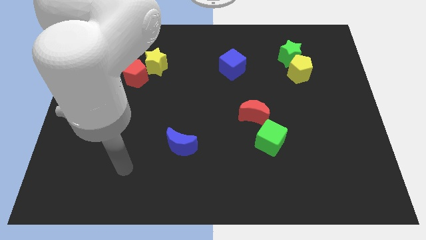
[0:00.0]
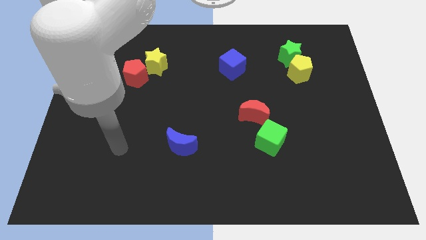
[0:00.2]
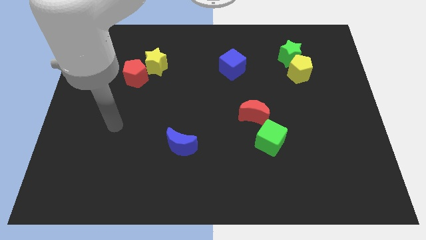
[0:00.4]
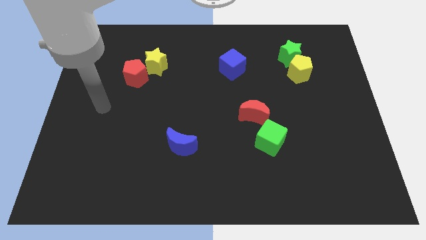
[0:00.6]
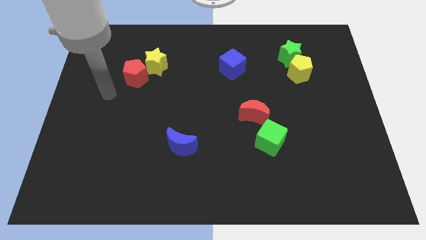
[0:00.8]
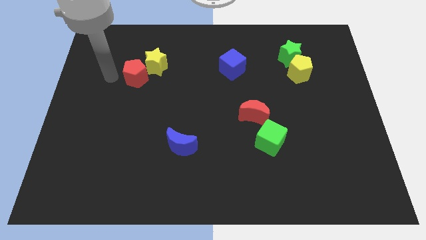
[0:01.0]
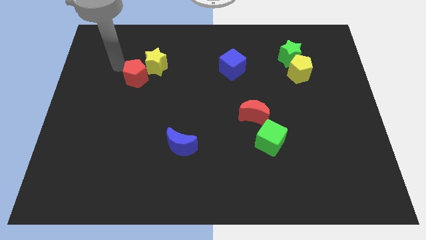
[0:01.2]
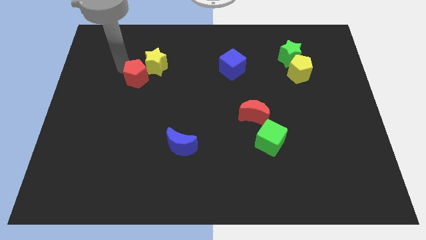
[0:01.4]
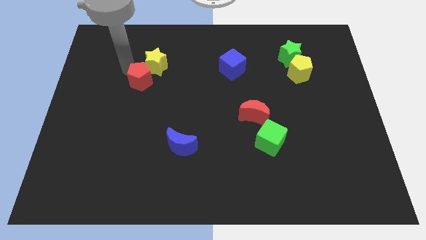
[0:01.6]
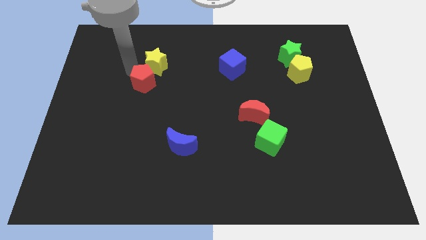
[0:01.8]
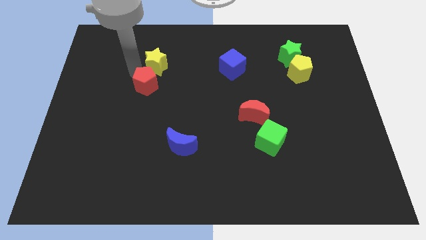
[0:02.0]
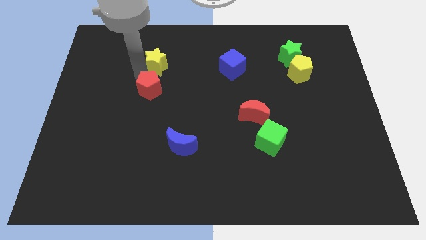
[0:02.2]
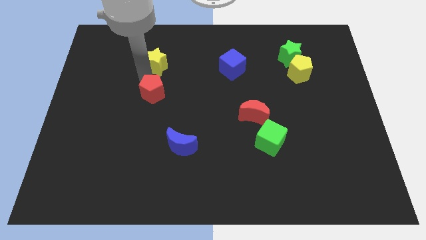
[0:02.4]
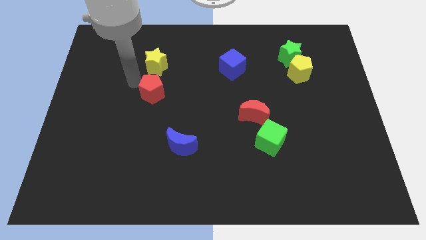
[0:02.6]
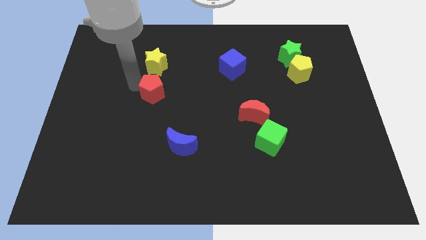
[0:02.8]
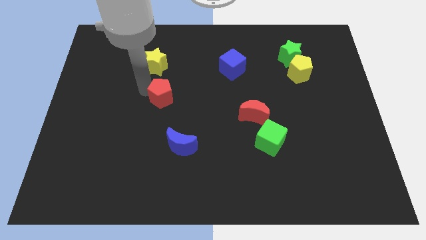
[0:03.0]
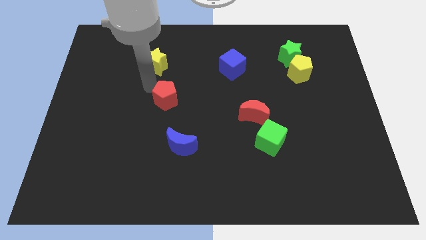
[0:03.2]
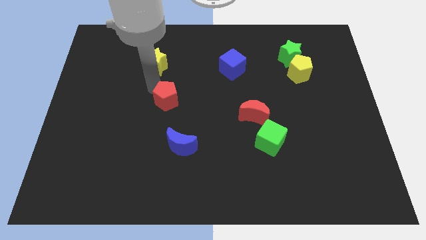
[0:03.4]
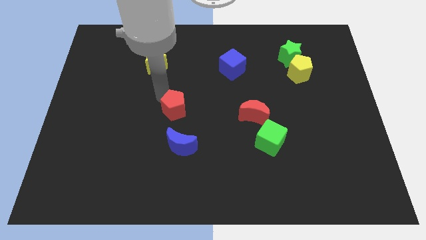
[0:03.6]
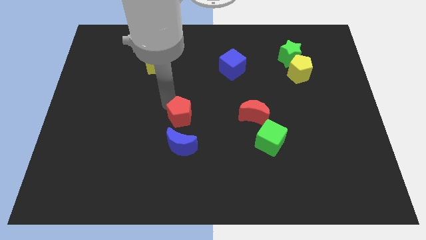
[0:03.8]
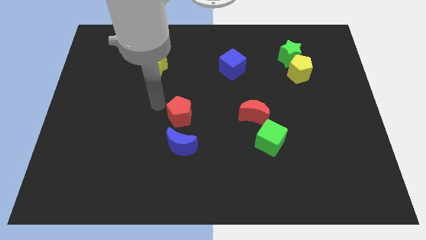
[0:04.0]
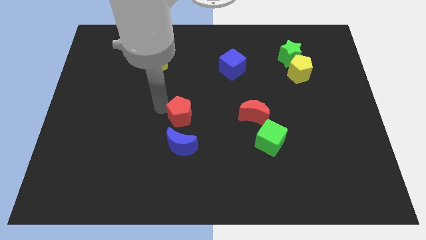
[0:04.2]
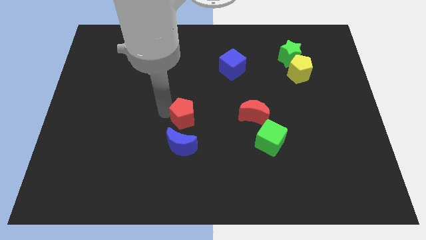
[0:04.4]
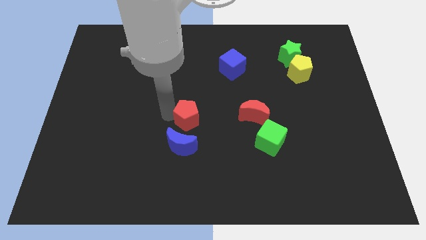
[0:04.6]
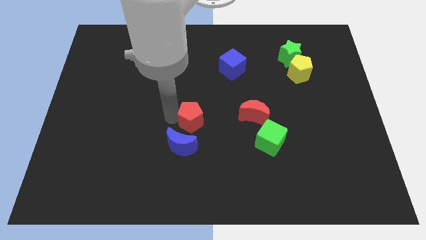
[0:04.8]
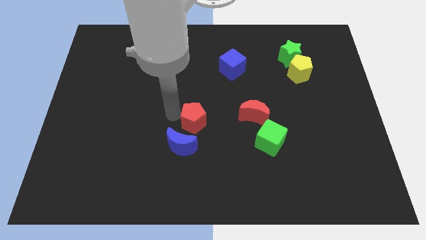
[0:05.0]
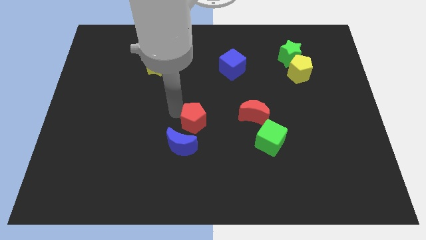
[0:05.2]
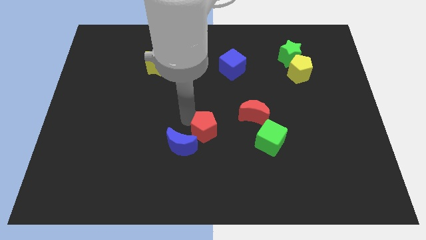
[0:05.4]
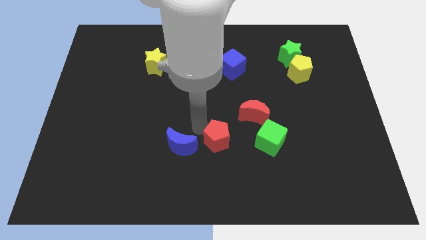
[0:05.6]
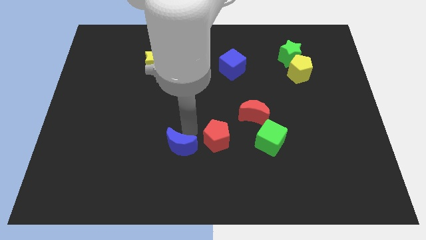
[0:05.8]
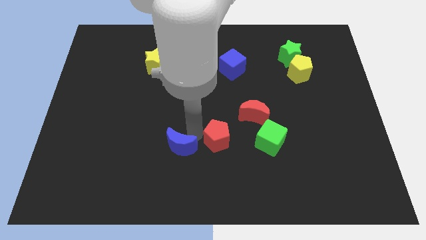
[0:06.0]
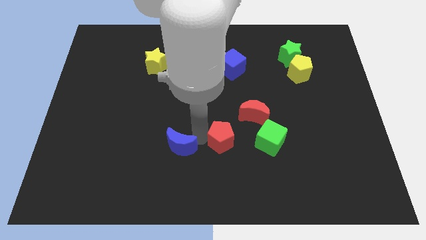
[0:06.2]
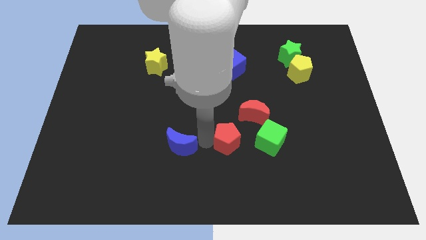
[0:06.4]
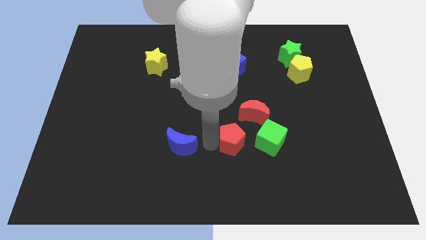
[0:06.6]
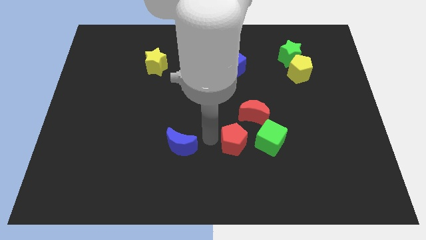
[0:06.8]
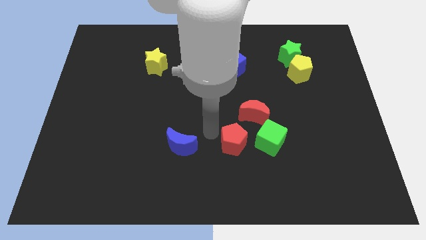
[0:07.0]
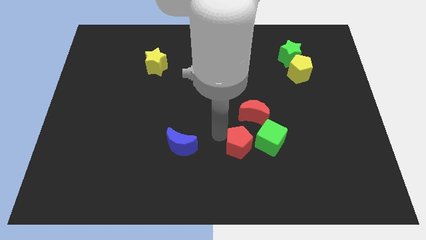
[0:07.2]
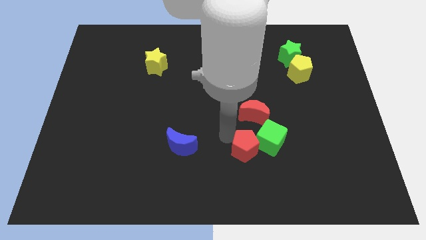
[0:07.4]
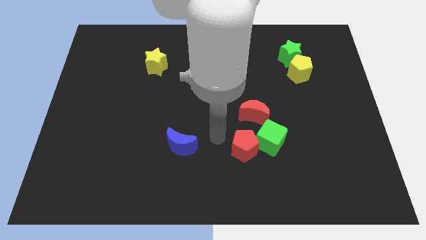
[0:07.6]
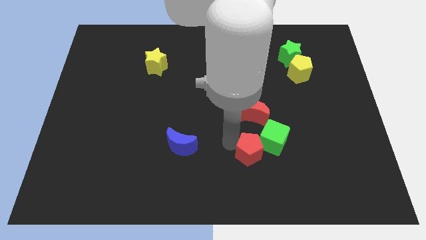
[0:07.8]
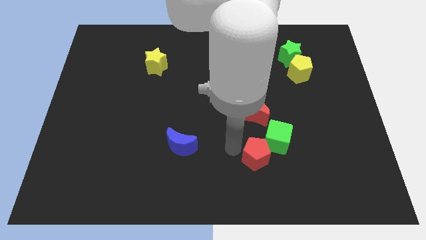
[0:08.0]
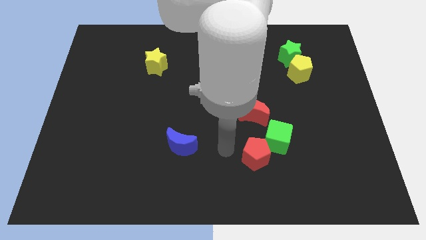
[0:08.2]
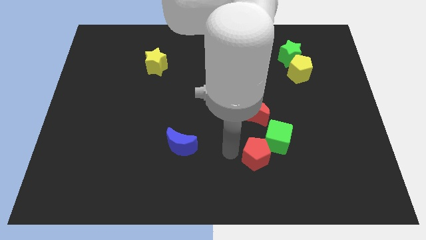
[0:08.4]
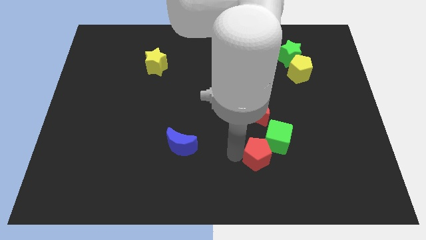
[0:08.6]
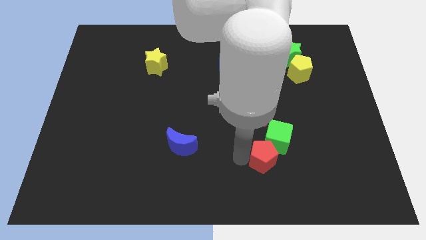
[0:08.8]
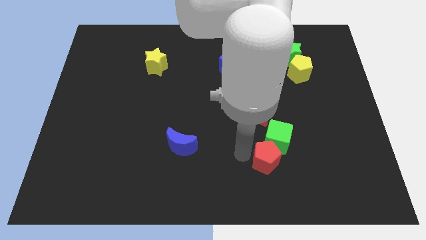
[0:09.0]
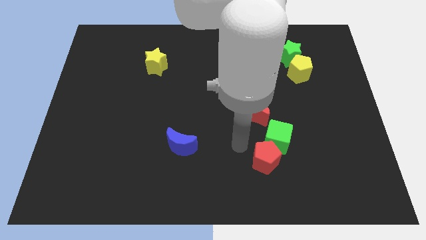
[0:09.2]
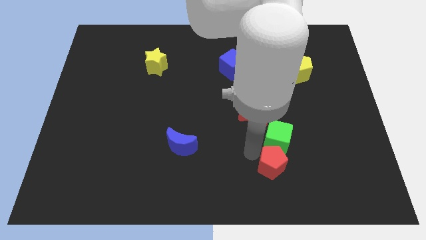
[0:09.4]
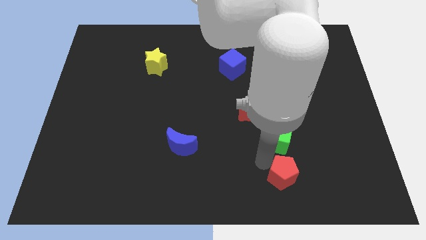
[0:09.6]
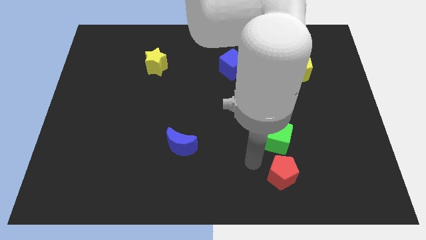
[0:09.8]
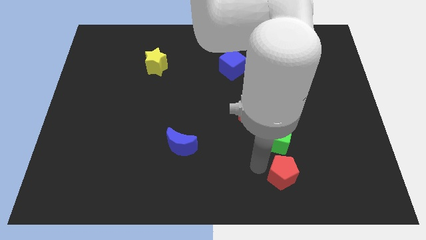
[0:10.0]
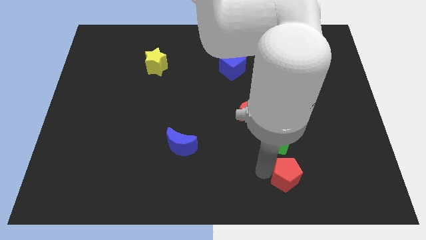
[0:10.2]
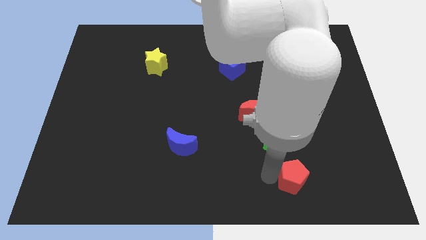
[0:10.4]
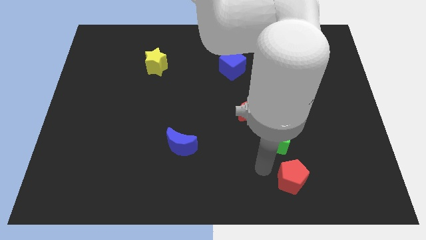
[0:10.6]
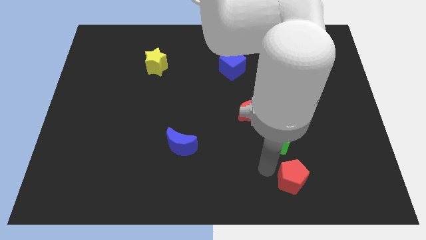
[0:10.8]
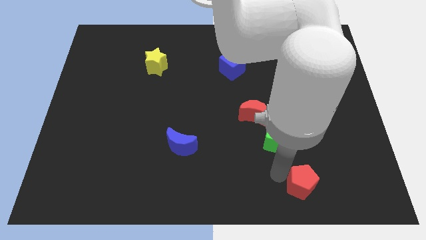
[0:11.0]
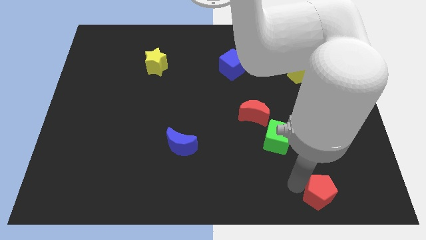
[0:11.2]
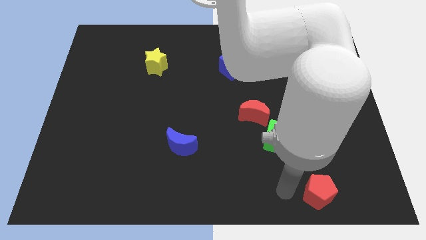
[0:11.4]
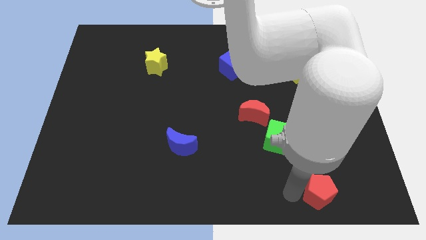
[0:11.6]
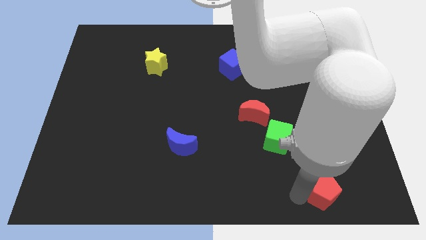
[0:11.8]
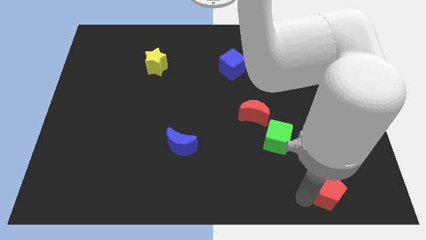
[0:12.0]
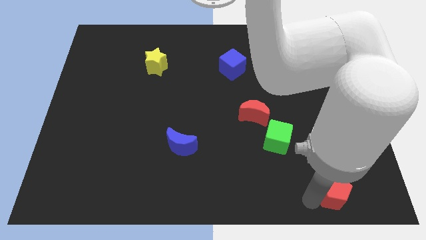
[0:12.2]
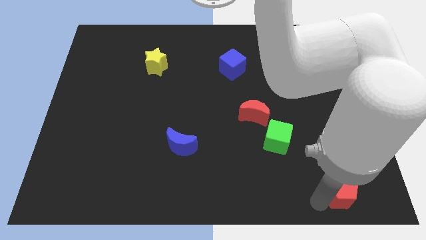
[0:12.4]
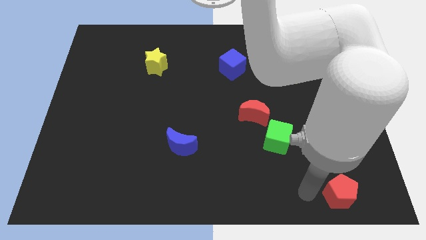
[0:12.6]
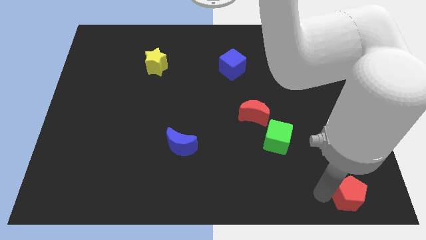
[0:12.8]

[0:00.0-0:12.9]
put the red pentagon to the bottom right corner
